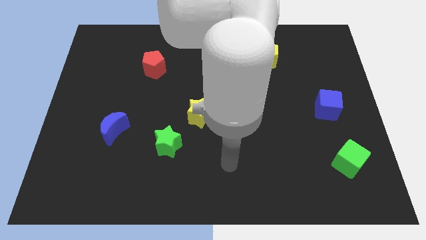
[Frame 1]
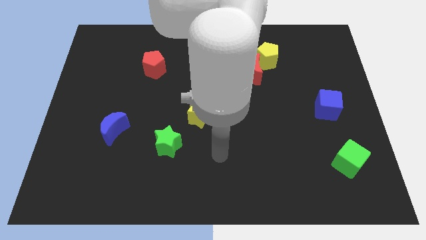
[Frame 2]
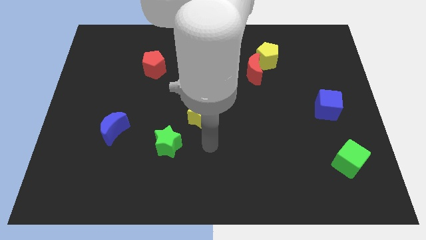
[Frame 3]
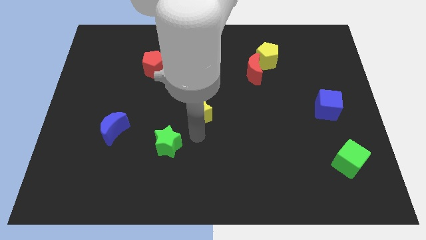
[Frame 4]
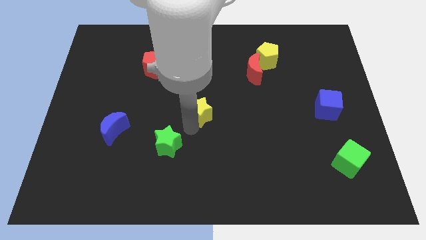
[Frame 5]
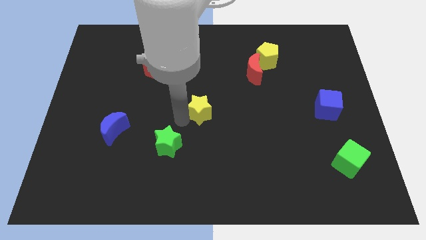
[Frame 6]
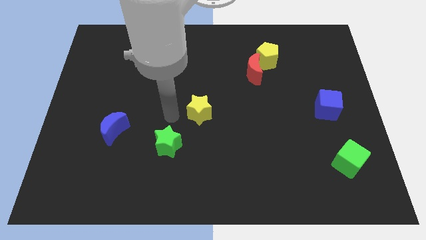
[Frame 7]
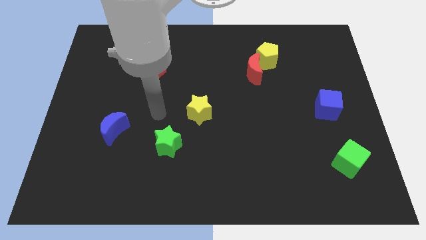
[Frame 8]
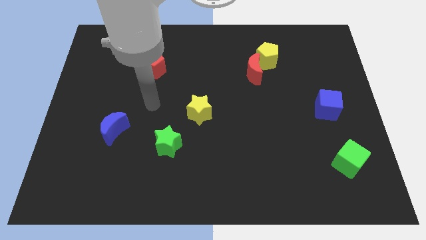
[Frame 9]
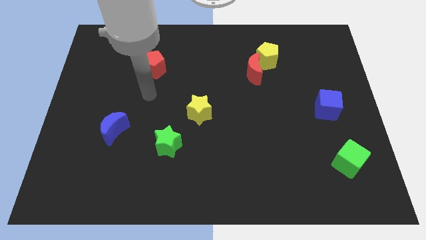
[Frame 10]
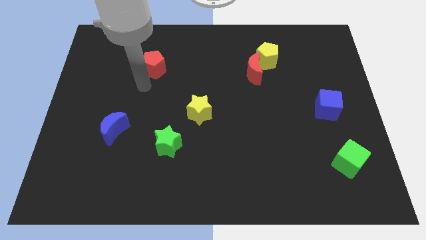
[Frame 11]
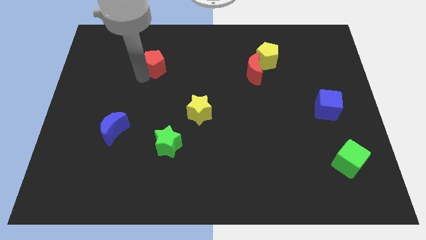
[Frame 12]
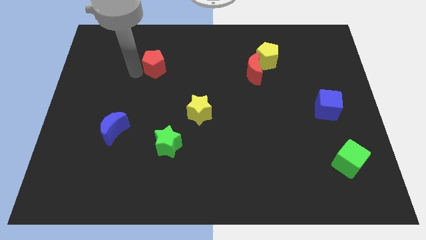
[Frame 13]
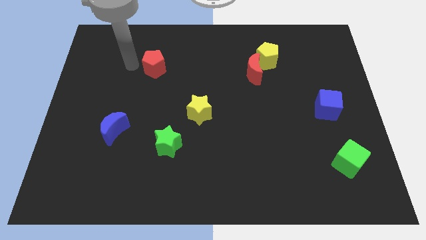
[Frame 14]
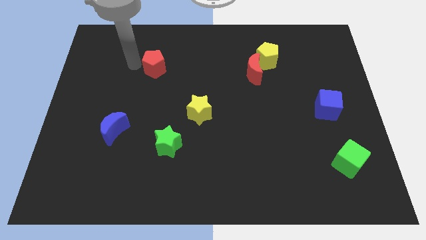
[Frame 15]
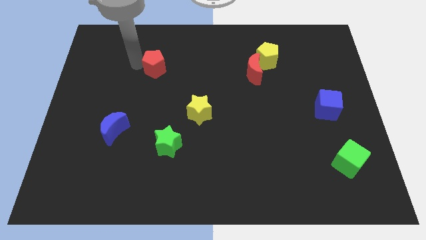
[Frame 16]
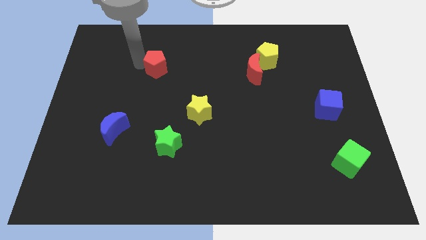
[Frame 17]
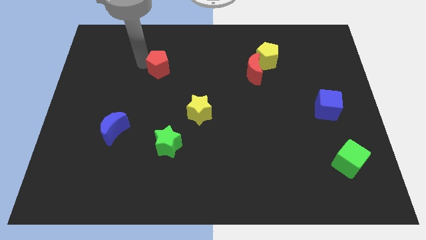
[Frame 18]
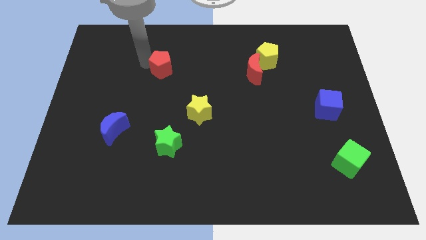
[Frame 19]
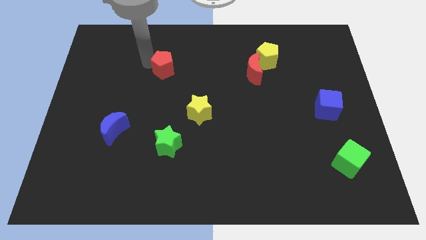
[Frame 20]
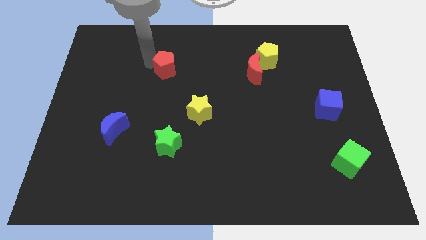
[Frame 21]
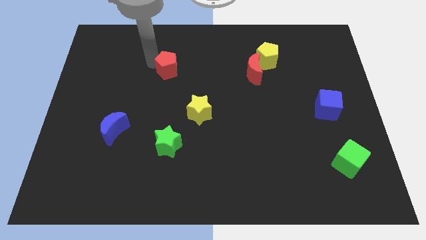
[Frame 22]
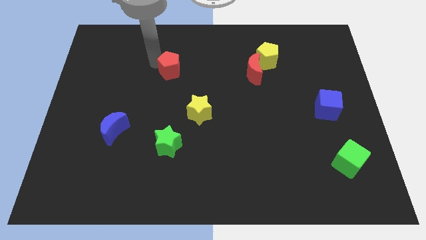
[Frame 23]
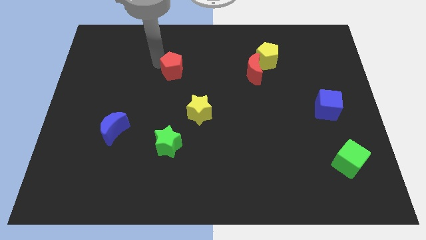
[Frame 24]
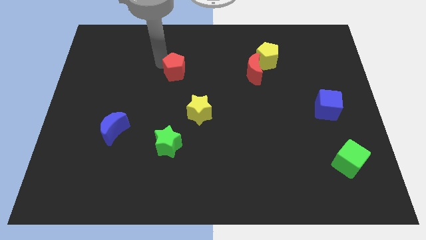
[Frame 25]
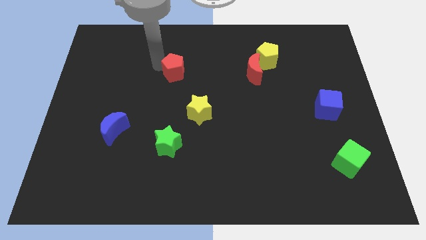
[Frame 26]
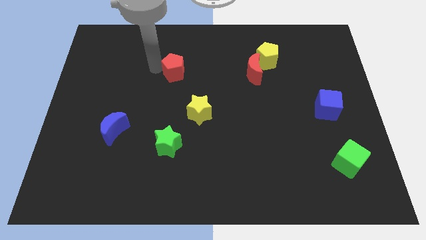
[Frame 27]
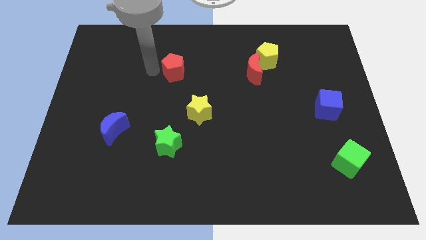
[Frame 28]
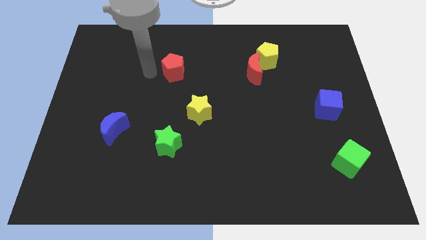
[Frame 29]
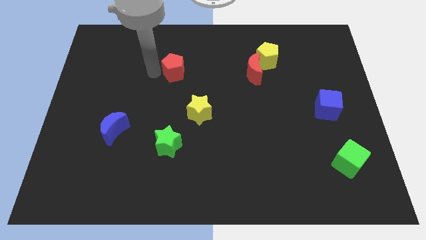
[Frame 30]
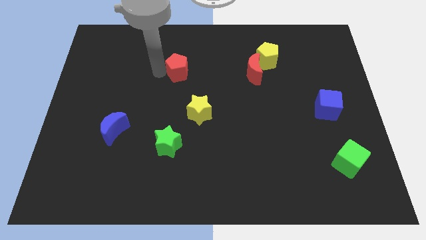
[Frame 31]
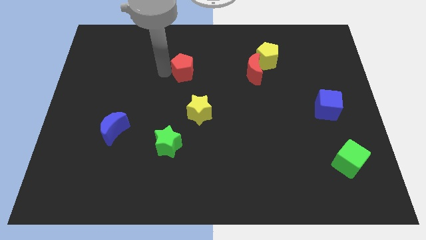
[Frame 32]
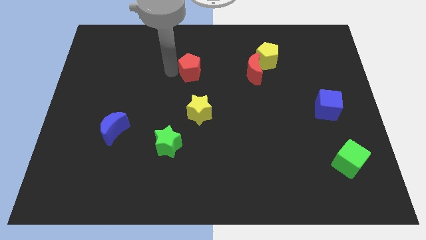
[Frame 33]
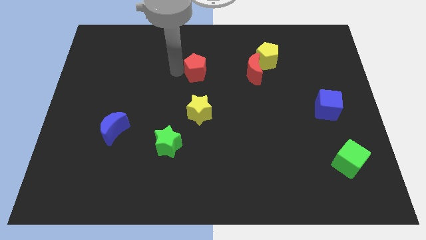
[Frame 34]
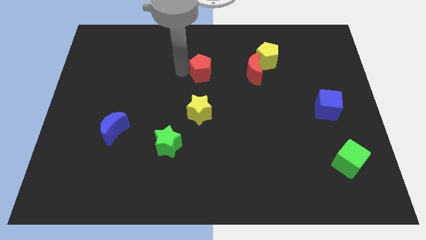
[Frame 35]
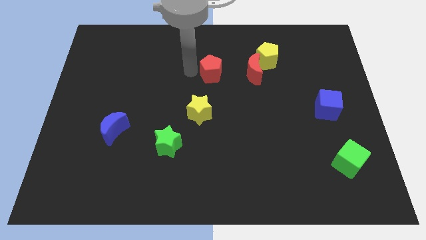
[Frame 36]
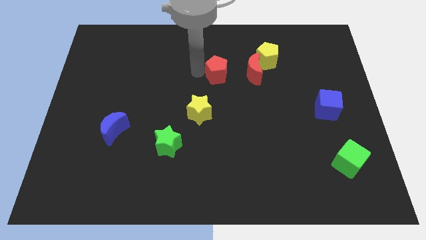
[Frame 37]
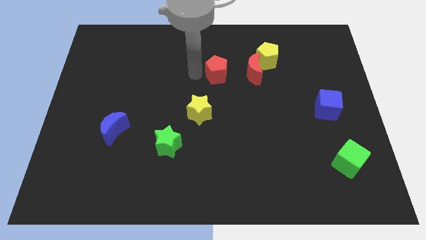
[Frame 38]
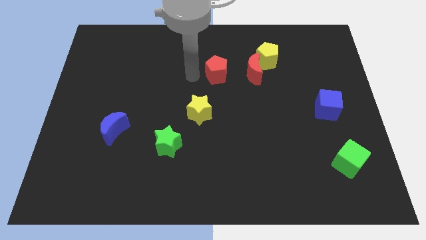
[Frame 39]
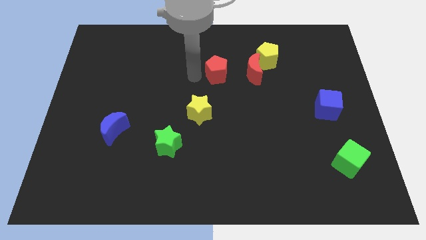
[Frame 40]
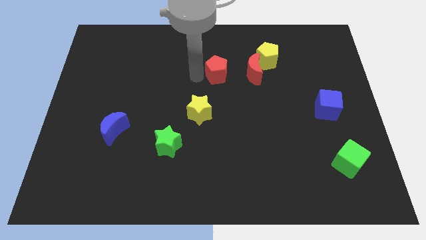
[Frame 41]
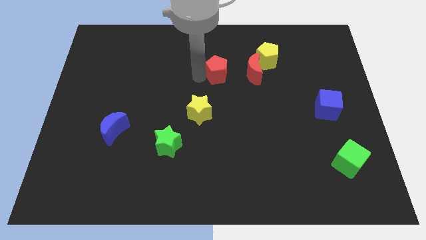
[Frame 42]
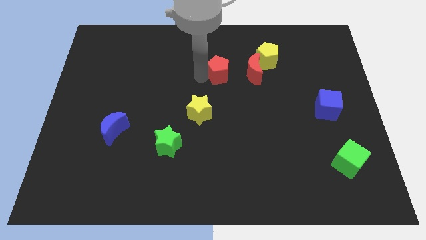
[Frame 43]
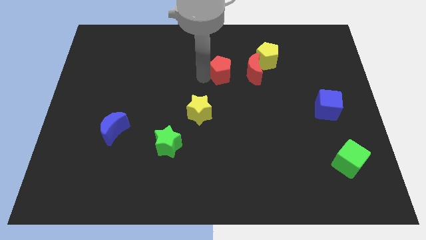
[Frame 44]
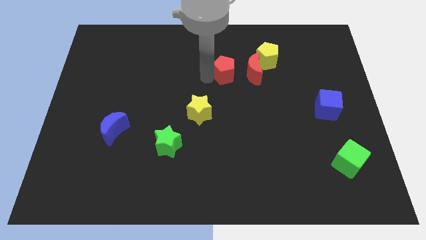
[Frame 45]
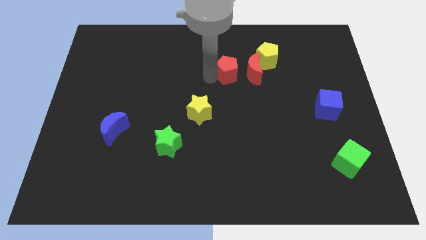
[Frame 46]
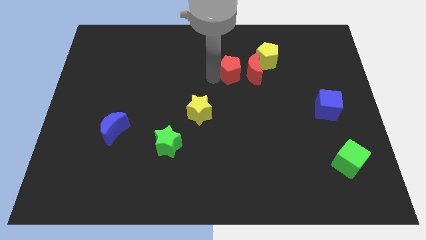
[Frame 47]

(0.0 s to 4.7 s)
put the red pentagon to the red moon

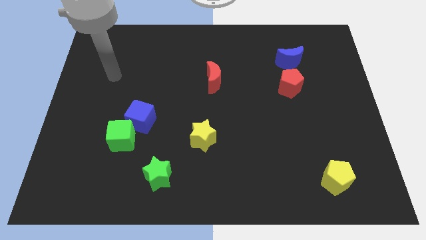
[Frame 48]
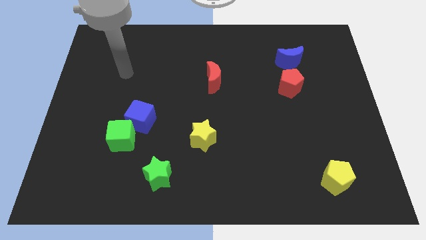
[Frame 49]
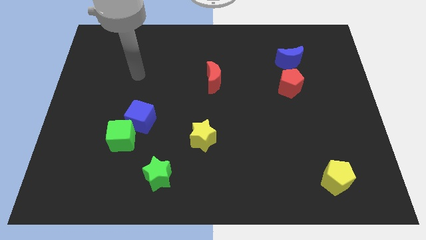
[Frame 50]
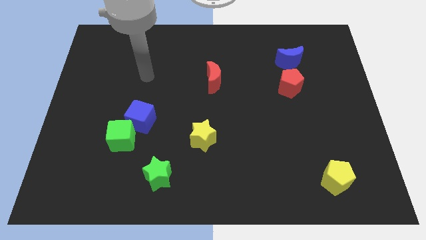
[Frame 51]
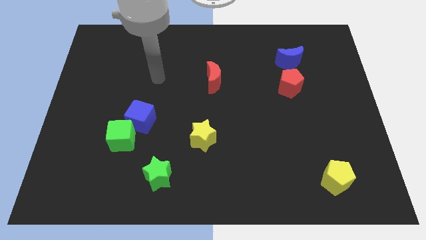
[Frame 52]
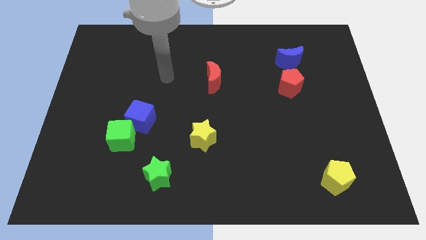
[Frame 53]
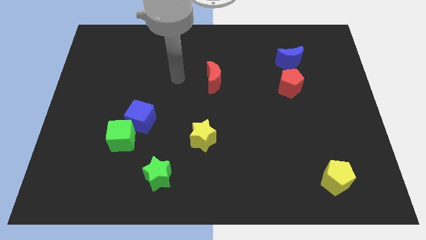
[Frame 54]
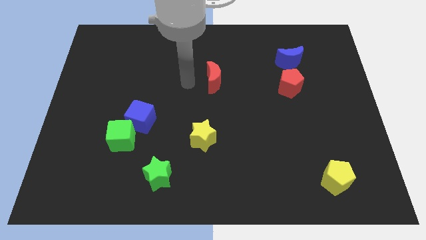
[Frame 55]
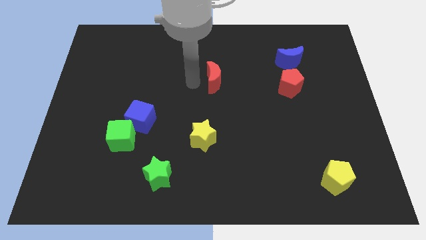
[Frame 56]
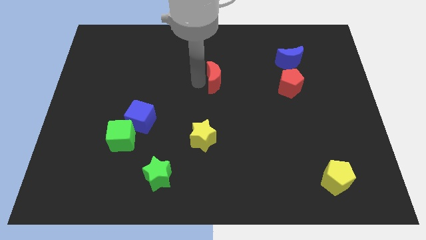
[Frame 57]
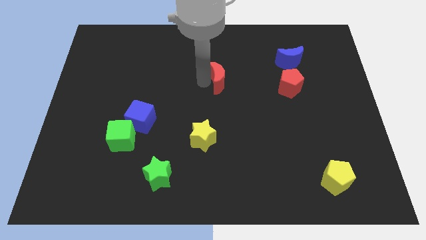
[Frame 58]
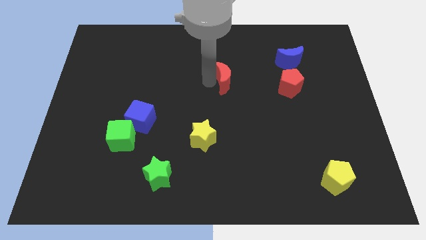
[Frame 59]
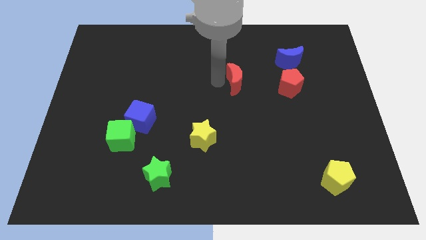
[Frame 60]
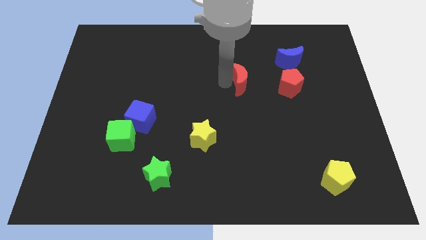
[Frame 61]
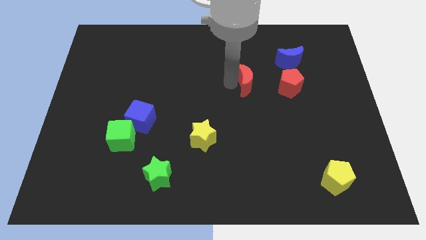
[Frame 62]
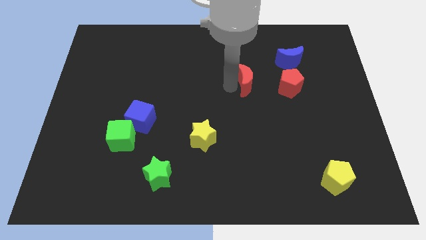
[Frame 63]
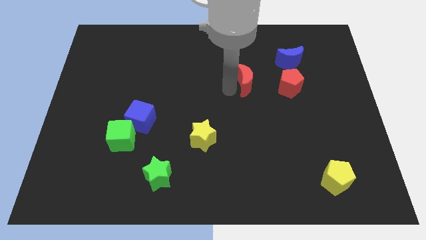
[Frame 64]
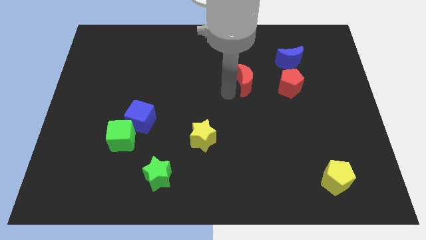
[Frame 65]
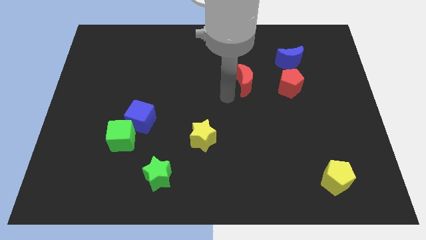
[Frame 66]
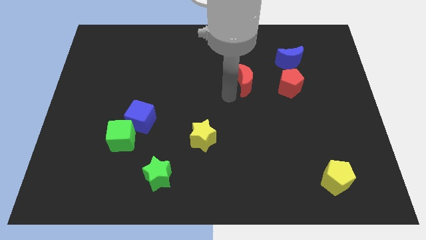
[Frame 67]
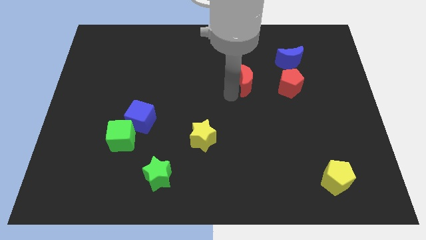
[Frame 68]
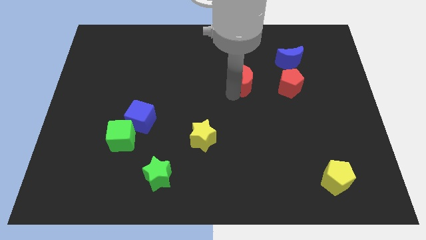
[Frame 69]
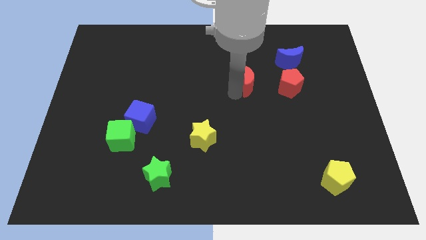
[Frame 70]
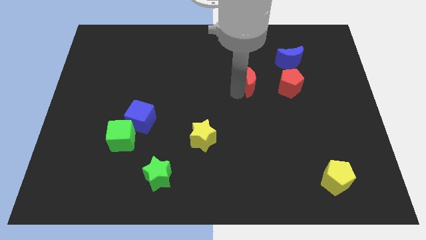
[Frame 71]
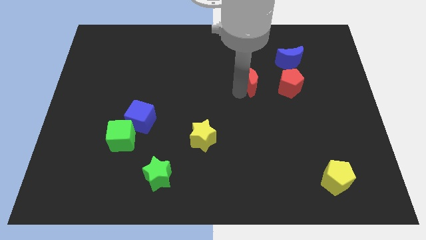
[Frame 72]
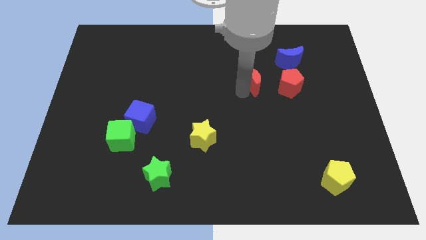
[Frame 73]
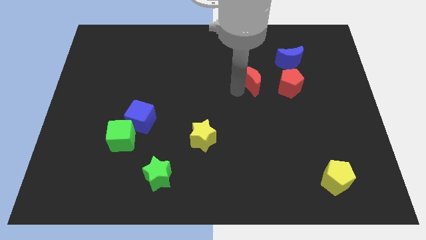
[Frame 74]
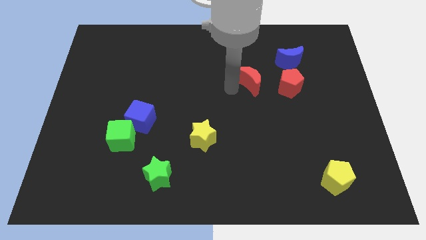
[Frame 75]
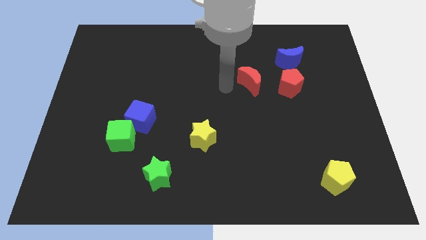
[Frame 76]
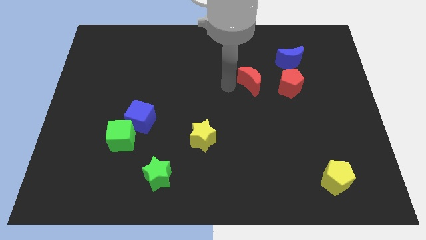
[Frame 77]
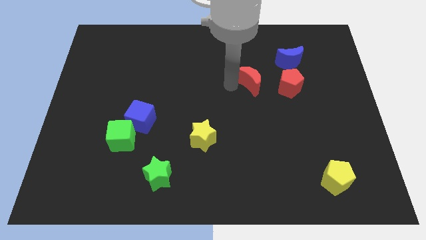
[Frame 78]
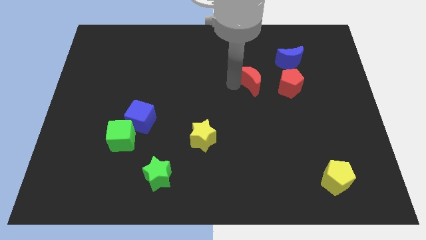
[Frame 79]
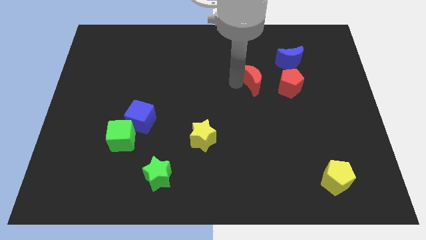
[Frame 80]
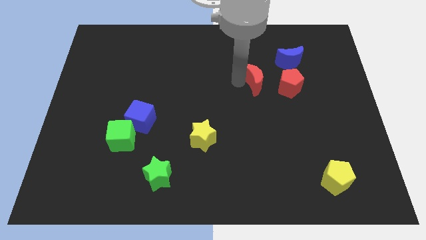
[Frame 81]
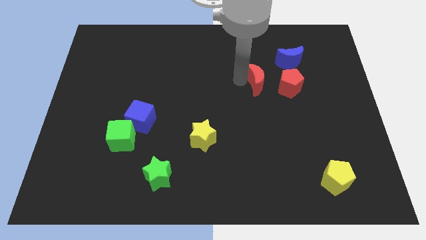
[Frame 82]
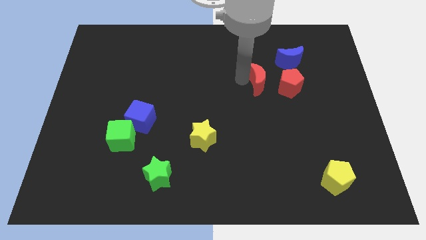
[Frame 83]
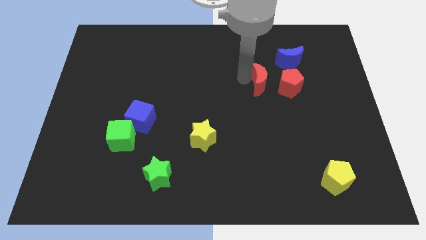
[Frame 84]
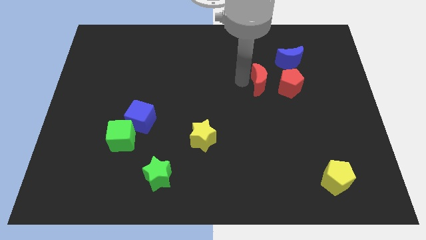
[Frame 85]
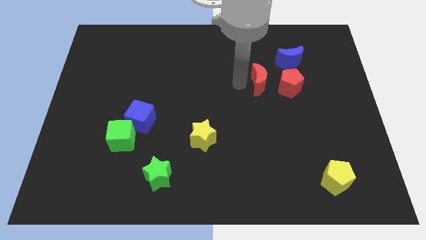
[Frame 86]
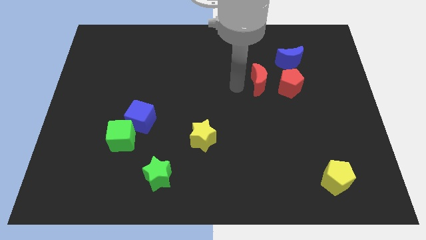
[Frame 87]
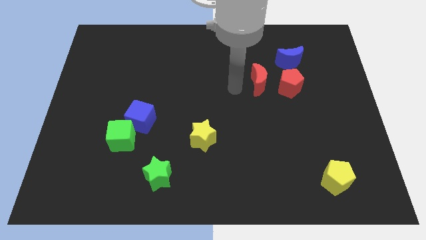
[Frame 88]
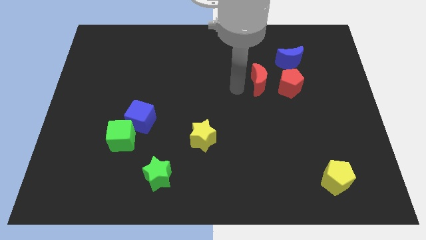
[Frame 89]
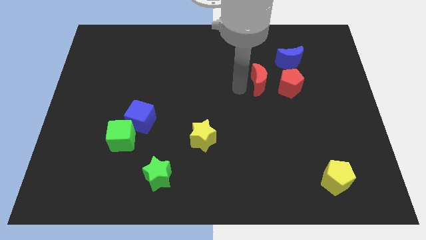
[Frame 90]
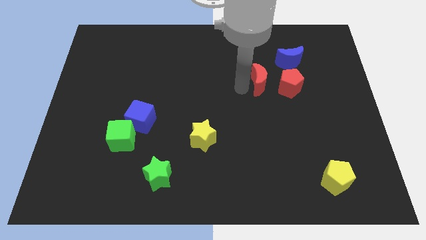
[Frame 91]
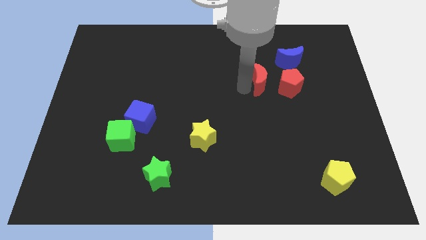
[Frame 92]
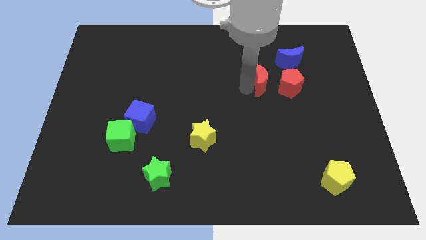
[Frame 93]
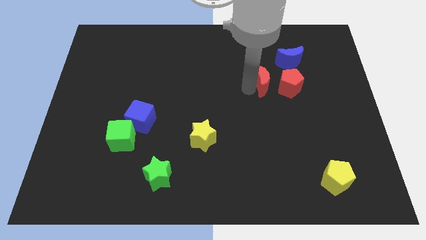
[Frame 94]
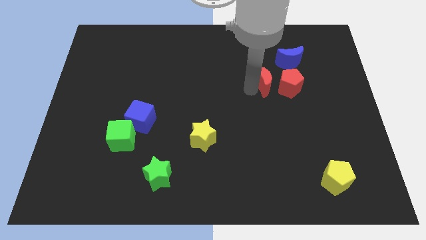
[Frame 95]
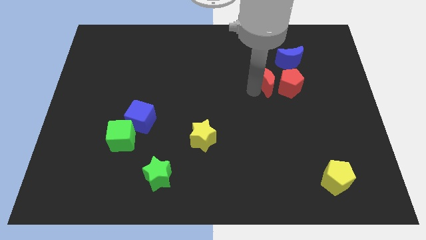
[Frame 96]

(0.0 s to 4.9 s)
push the red moon towards the red pentagon
